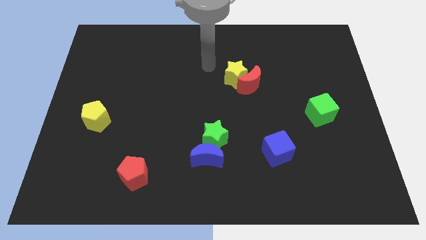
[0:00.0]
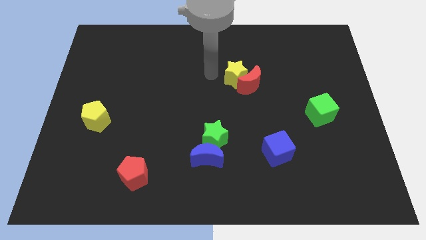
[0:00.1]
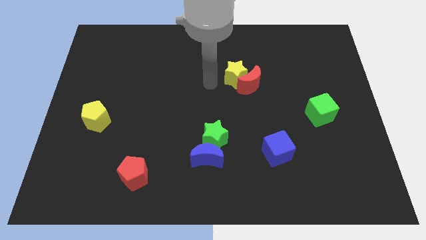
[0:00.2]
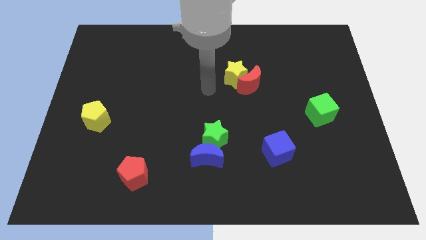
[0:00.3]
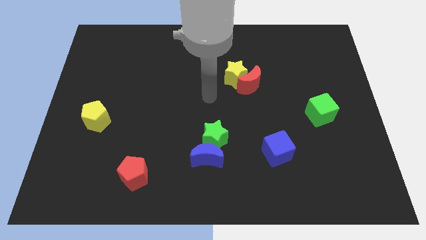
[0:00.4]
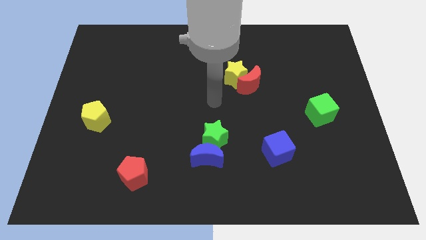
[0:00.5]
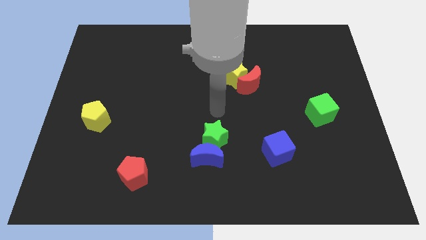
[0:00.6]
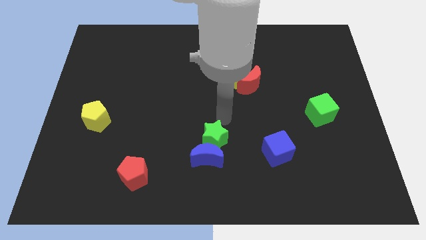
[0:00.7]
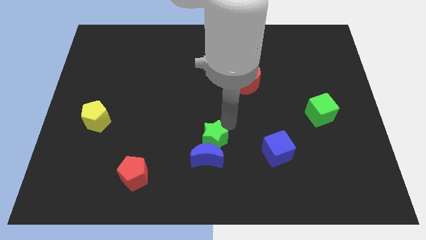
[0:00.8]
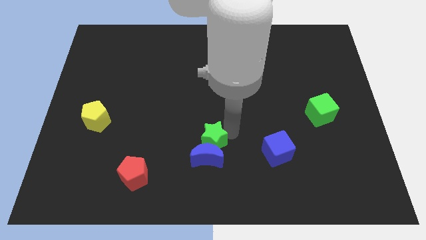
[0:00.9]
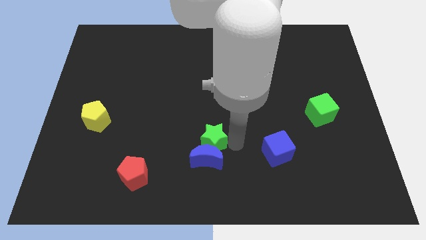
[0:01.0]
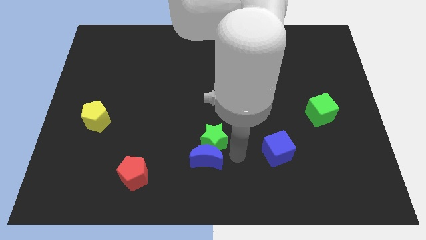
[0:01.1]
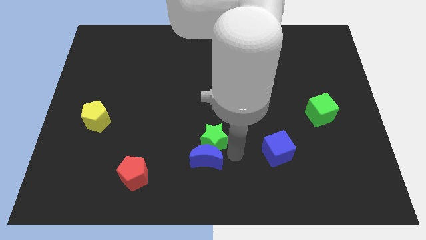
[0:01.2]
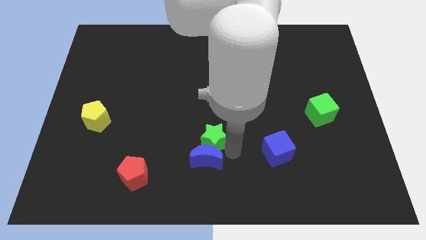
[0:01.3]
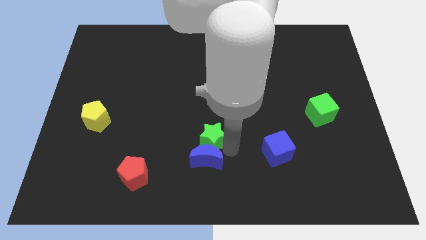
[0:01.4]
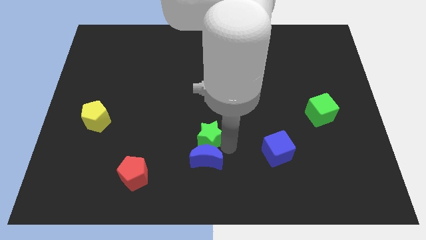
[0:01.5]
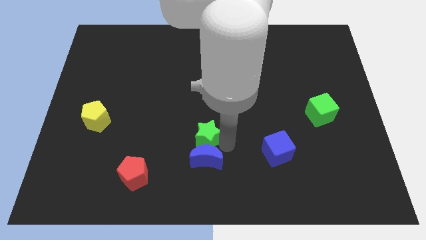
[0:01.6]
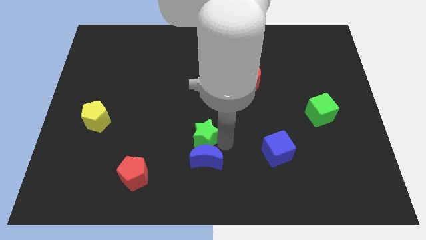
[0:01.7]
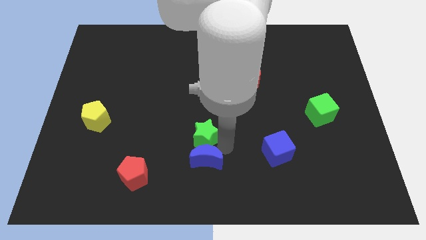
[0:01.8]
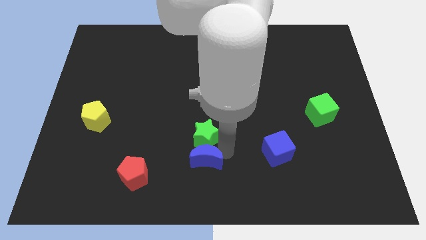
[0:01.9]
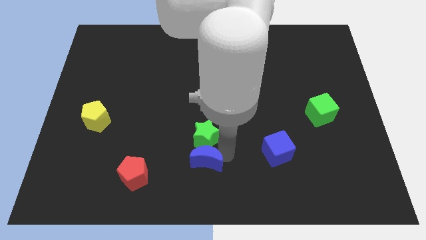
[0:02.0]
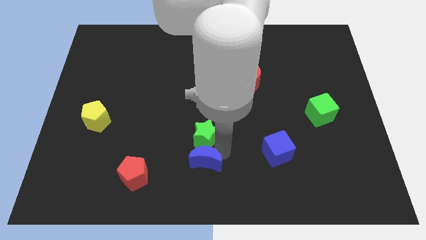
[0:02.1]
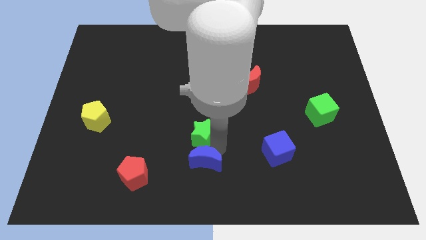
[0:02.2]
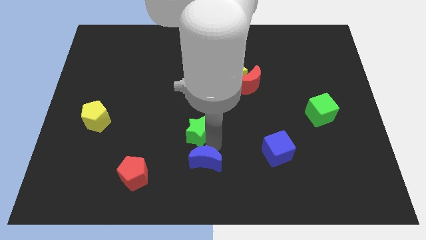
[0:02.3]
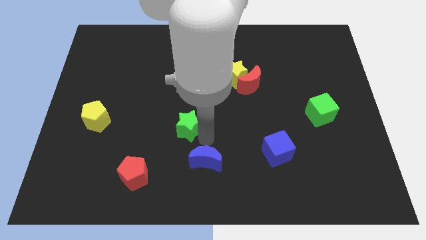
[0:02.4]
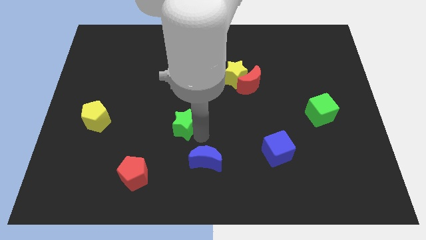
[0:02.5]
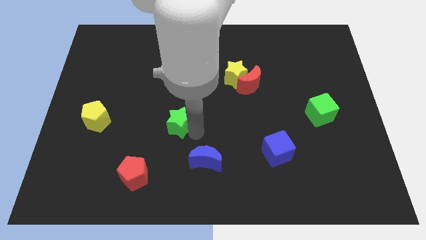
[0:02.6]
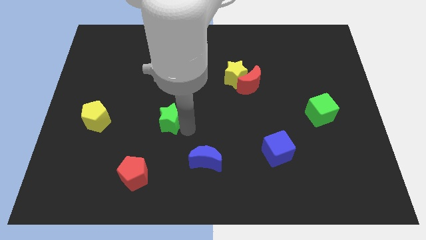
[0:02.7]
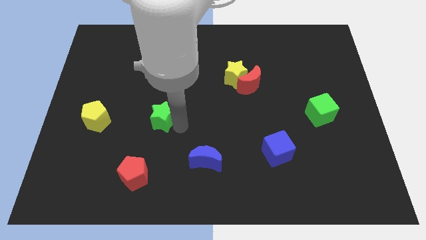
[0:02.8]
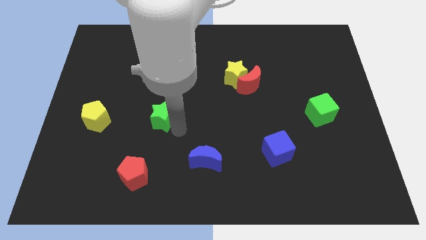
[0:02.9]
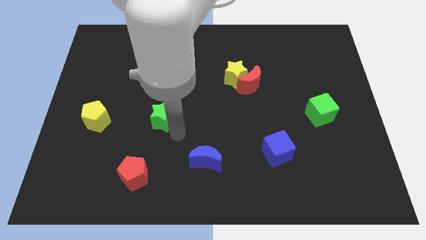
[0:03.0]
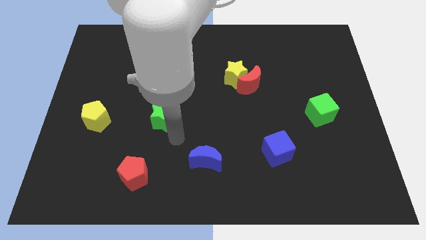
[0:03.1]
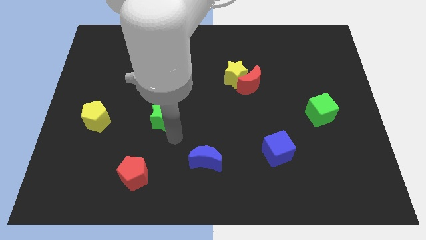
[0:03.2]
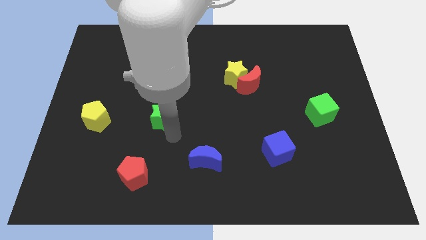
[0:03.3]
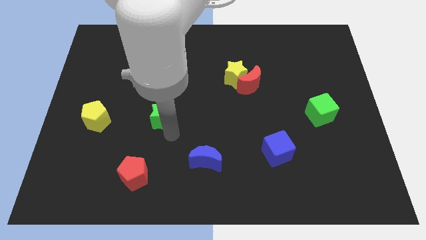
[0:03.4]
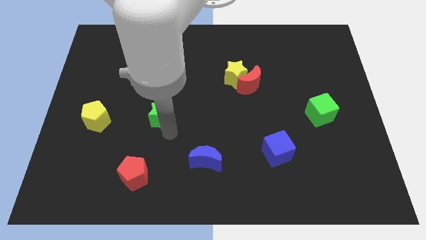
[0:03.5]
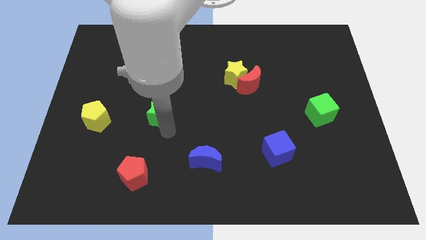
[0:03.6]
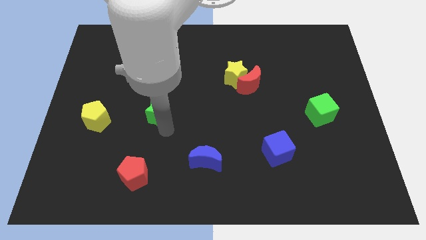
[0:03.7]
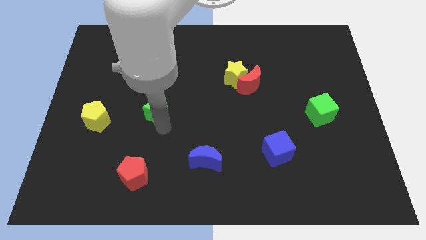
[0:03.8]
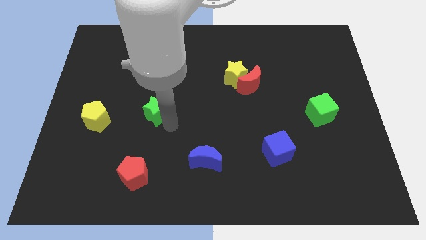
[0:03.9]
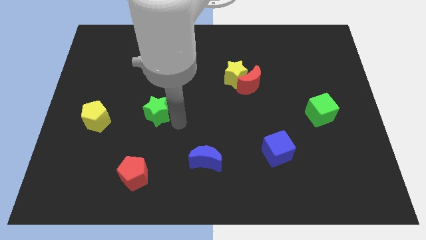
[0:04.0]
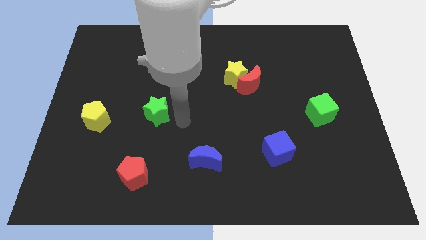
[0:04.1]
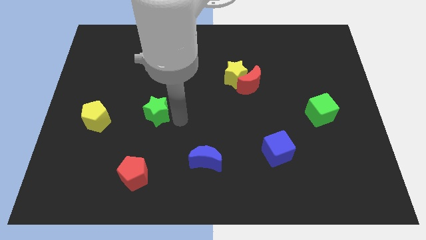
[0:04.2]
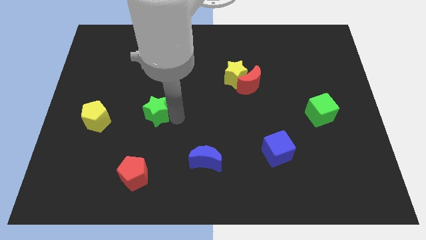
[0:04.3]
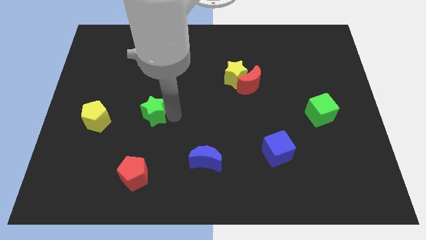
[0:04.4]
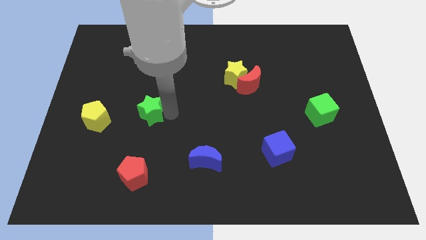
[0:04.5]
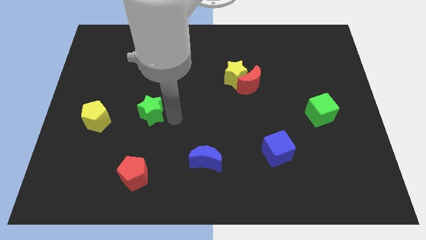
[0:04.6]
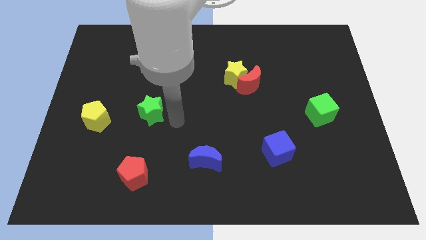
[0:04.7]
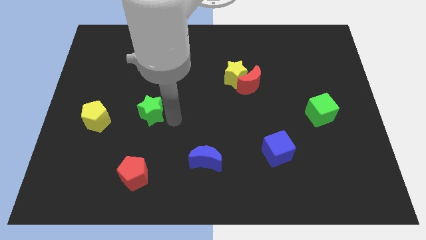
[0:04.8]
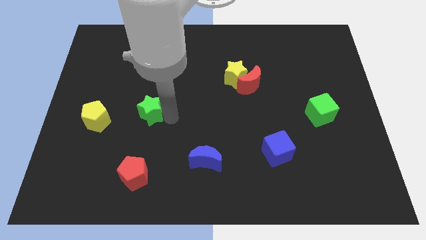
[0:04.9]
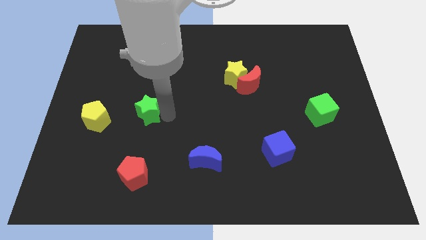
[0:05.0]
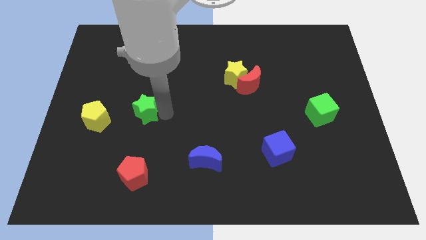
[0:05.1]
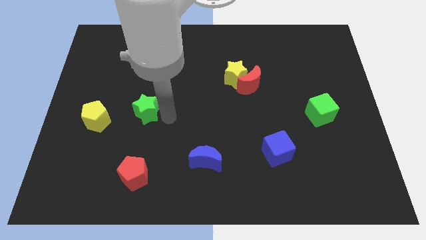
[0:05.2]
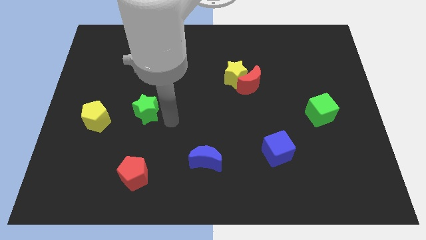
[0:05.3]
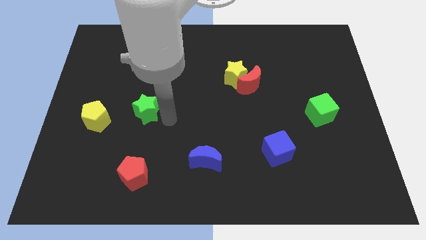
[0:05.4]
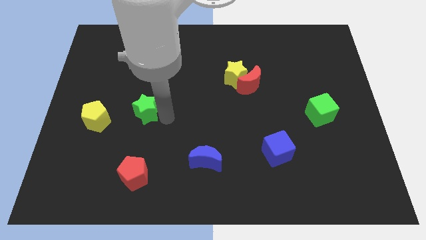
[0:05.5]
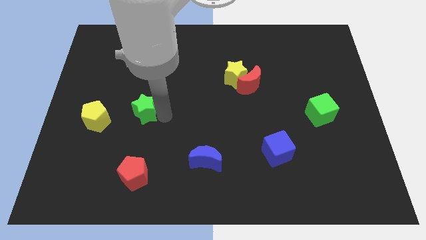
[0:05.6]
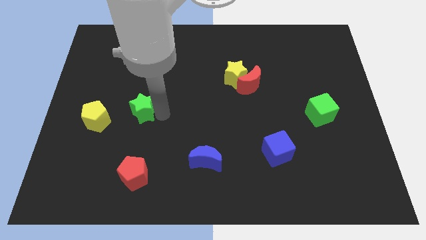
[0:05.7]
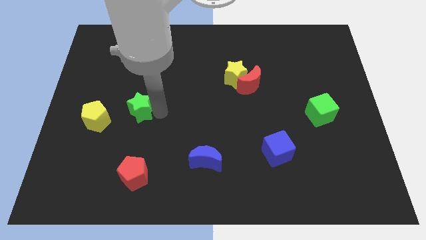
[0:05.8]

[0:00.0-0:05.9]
slide the green star diagonally up and to the right of the yellow pentagon

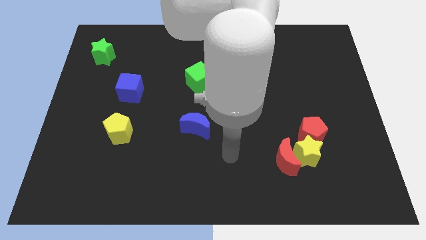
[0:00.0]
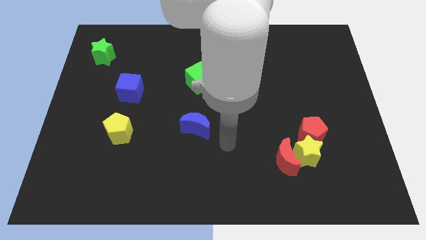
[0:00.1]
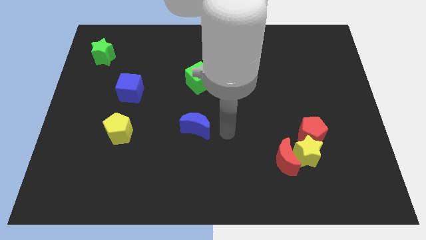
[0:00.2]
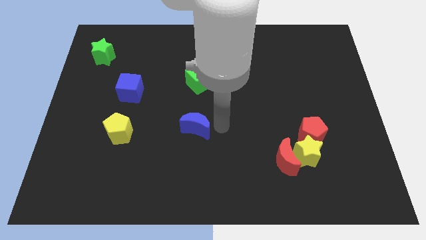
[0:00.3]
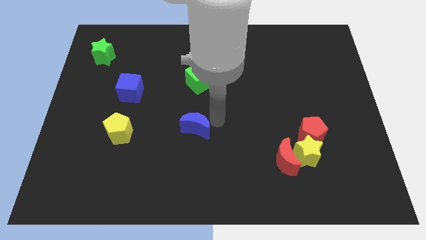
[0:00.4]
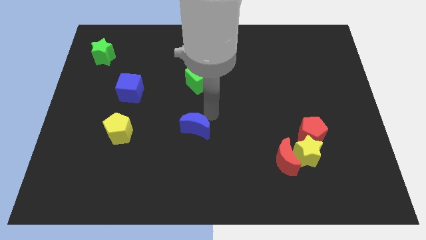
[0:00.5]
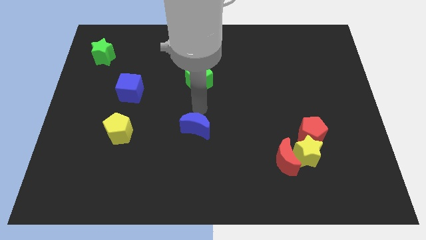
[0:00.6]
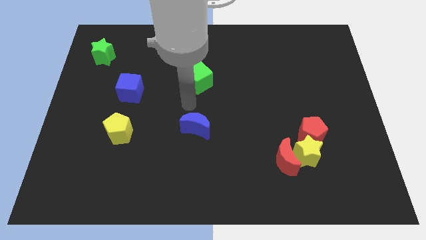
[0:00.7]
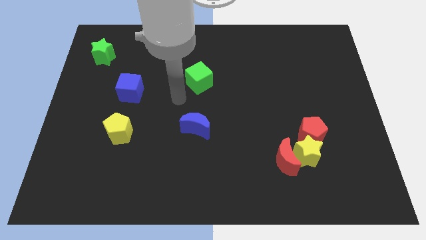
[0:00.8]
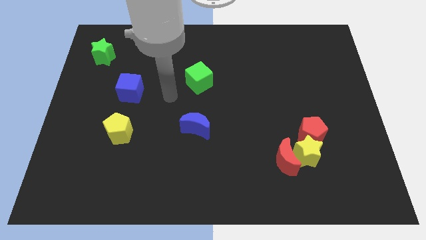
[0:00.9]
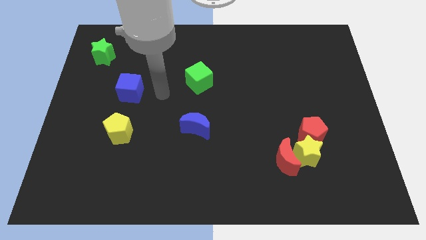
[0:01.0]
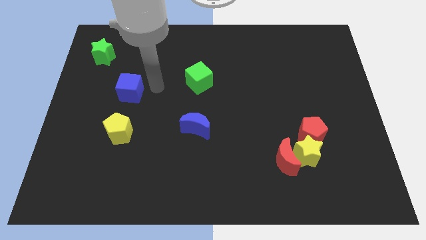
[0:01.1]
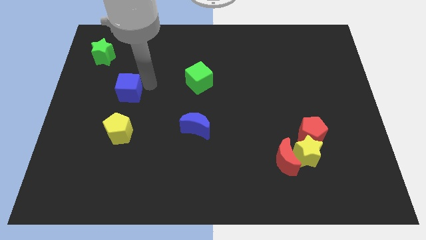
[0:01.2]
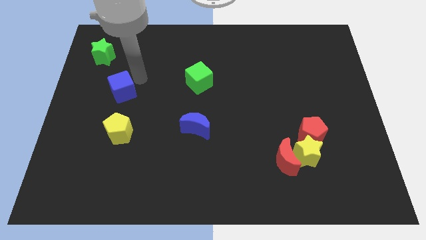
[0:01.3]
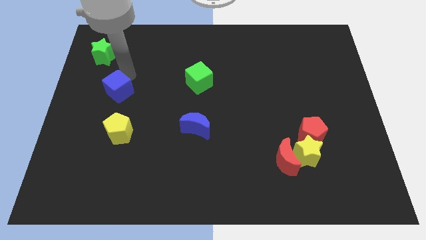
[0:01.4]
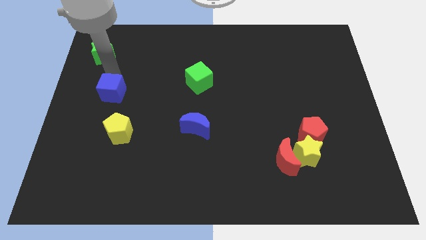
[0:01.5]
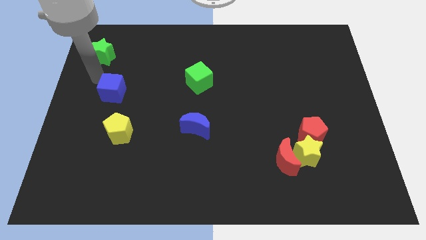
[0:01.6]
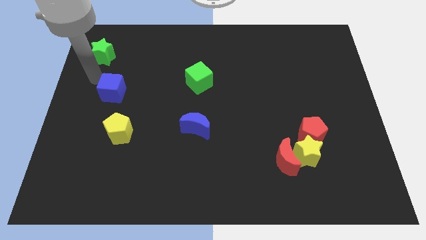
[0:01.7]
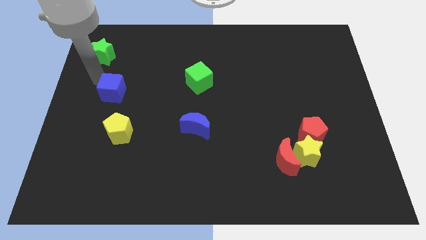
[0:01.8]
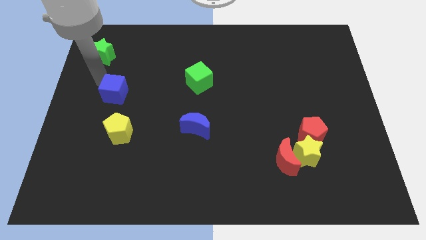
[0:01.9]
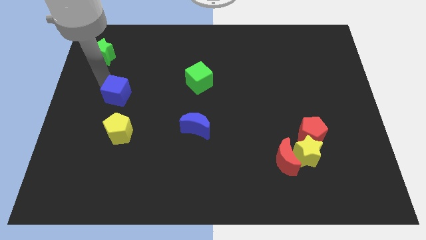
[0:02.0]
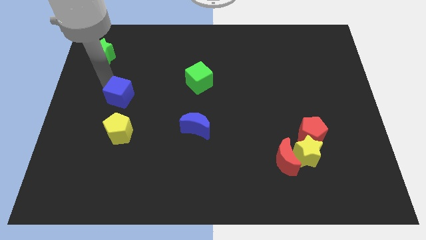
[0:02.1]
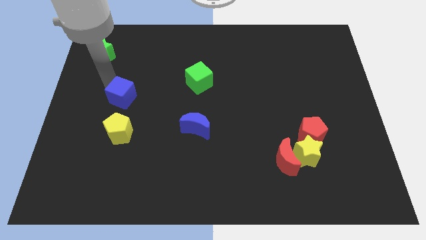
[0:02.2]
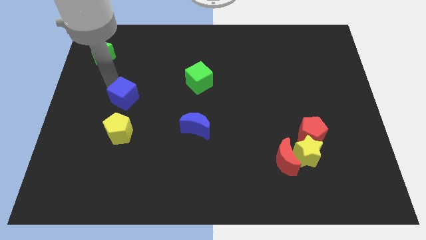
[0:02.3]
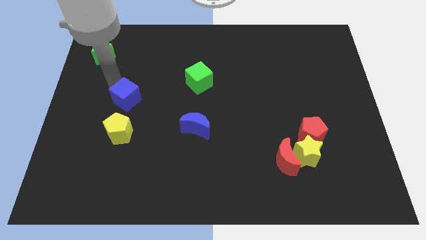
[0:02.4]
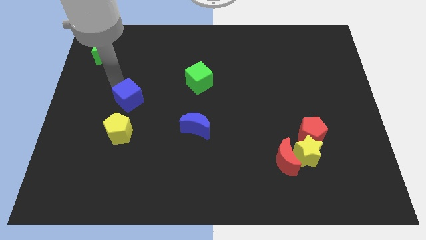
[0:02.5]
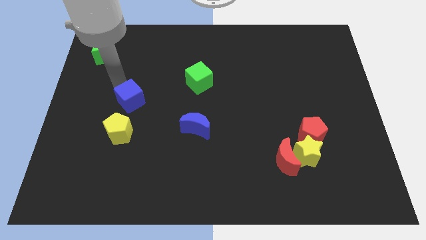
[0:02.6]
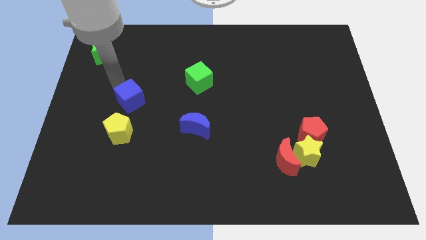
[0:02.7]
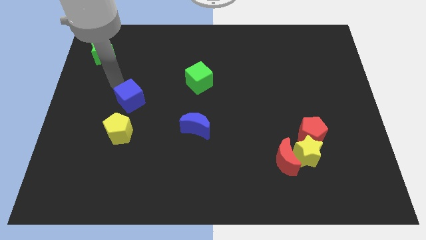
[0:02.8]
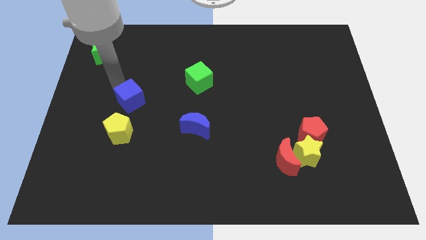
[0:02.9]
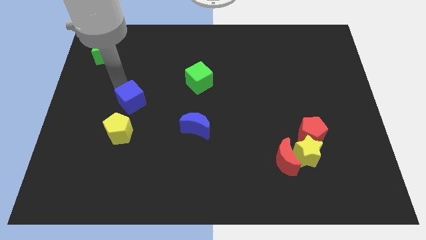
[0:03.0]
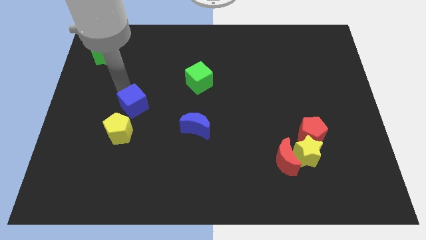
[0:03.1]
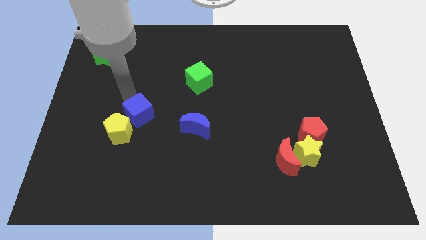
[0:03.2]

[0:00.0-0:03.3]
slide the blue cube left of the blue moon
